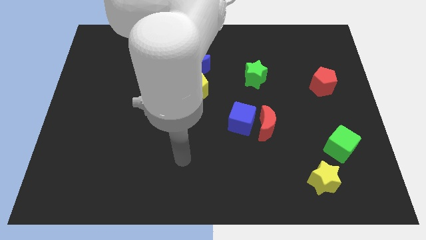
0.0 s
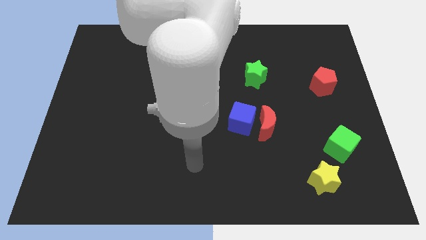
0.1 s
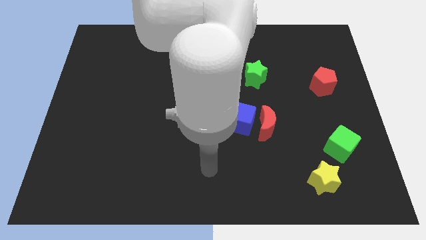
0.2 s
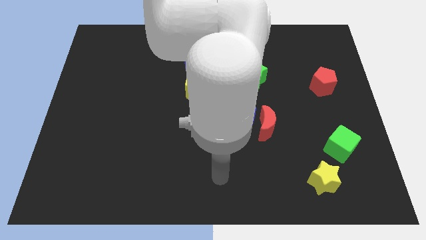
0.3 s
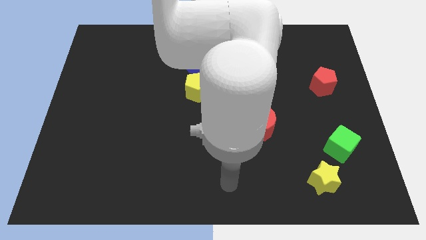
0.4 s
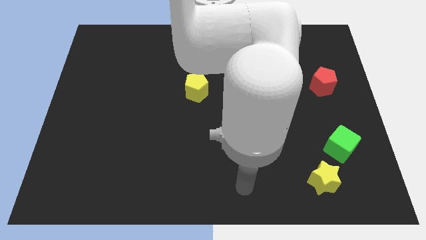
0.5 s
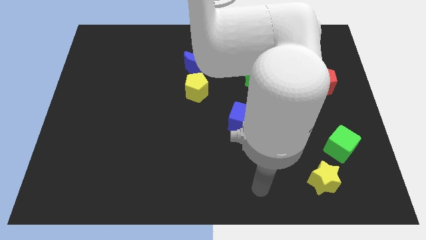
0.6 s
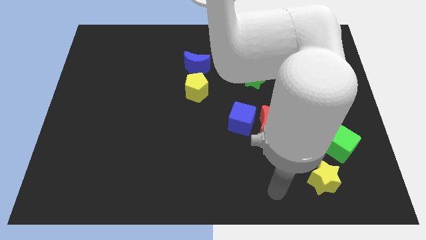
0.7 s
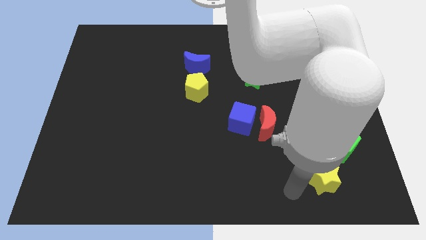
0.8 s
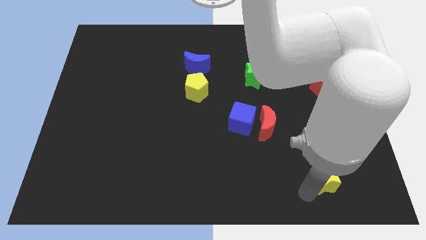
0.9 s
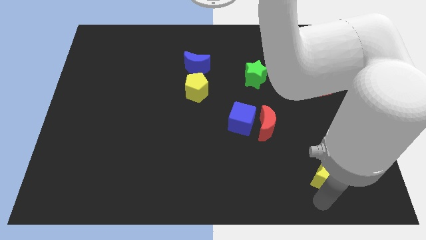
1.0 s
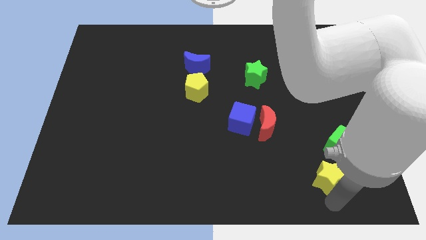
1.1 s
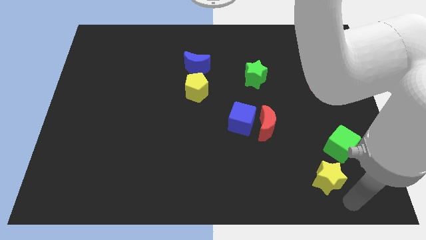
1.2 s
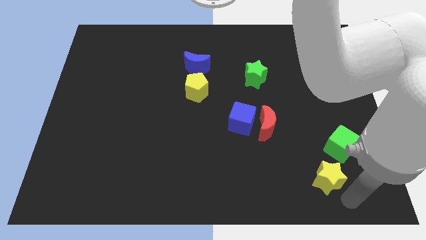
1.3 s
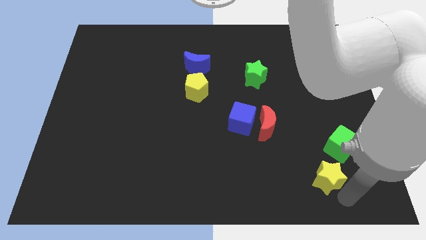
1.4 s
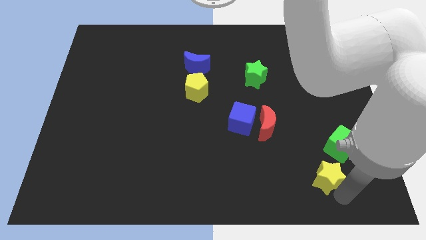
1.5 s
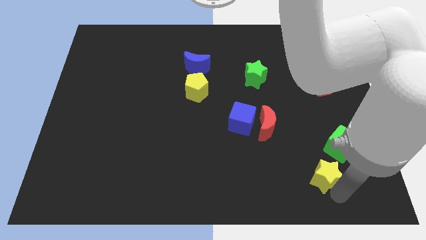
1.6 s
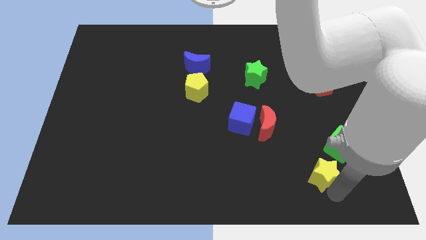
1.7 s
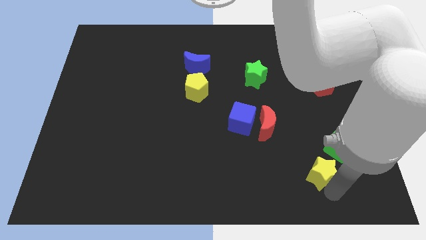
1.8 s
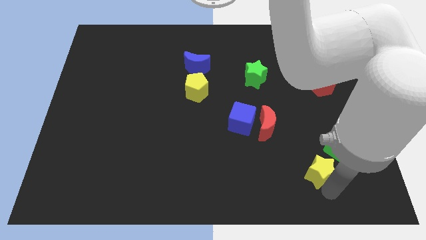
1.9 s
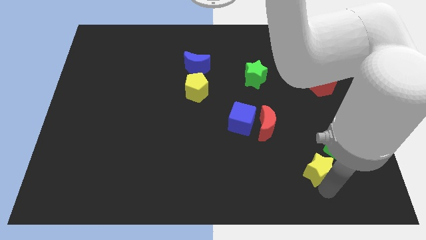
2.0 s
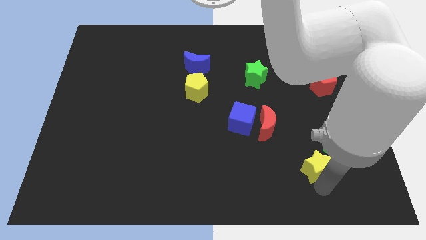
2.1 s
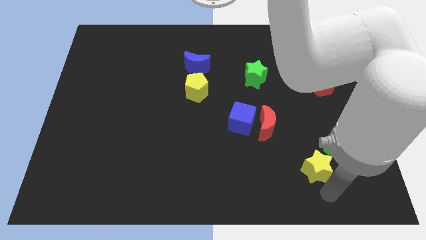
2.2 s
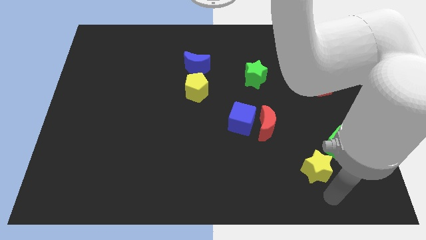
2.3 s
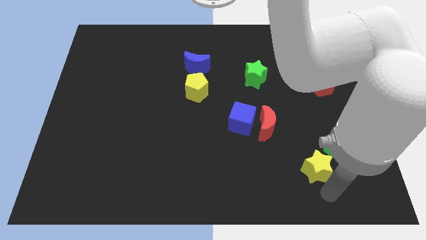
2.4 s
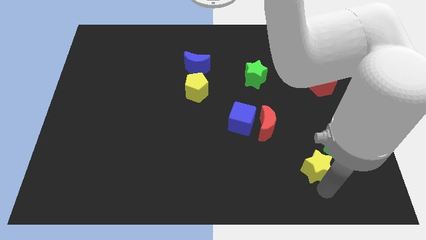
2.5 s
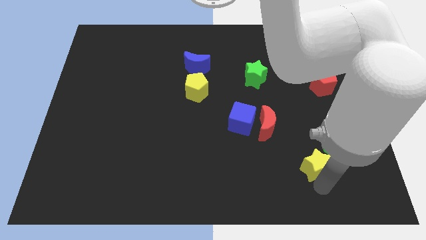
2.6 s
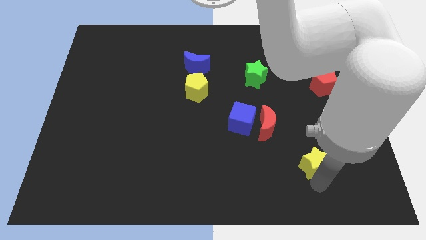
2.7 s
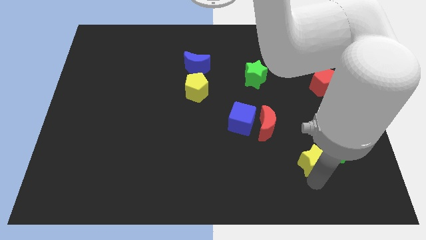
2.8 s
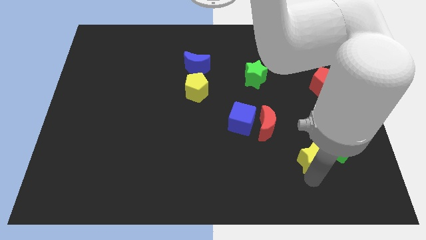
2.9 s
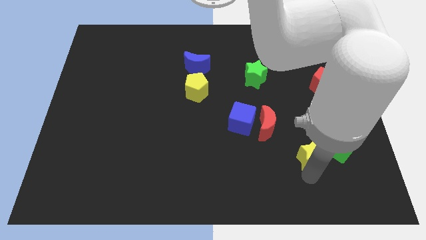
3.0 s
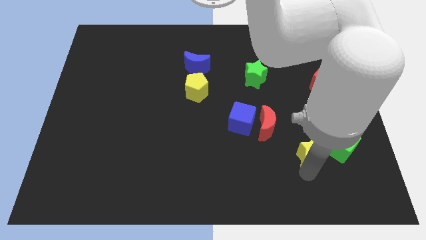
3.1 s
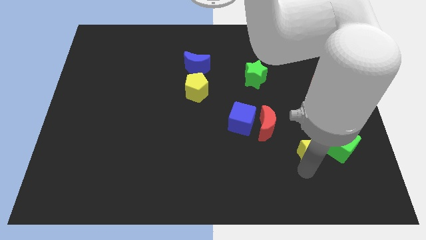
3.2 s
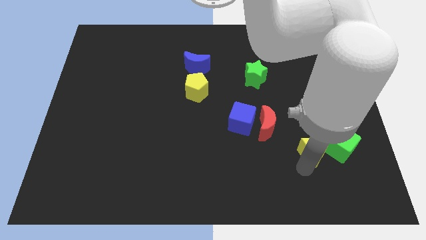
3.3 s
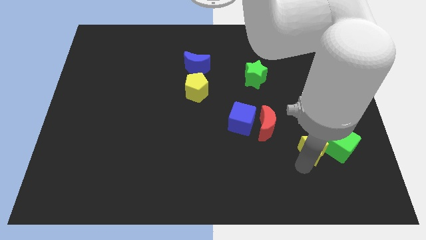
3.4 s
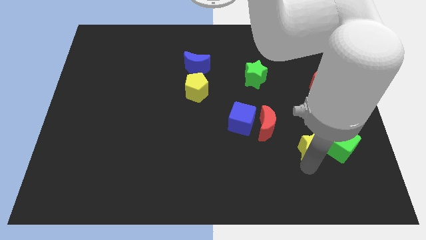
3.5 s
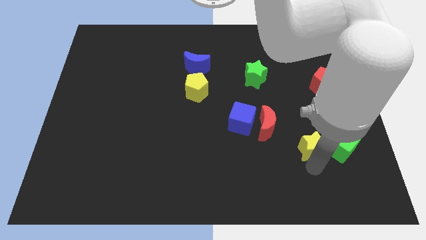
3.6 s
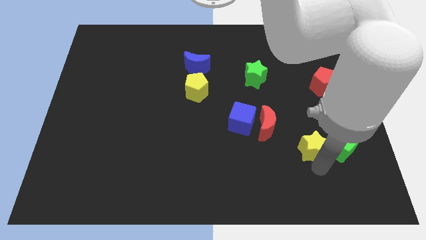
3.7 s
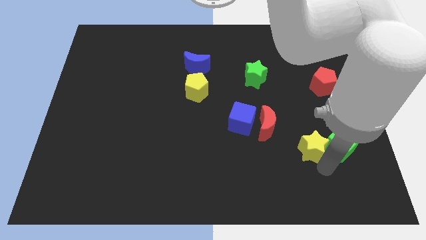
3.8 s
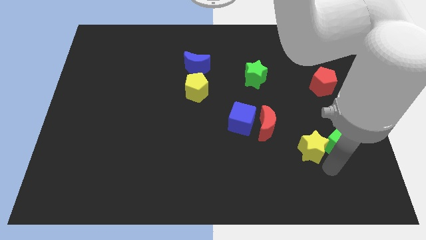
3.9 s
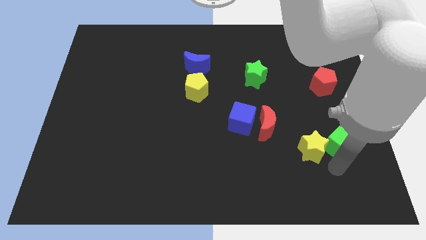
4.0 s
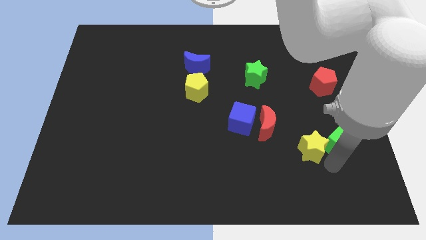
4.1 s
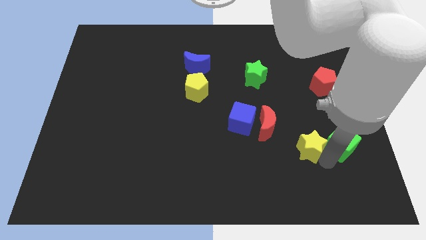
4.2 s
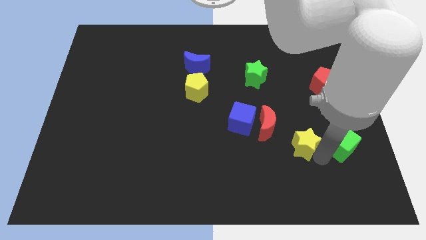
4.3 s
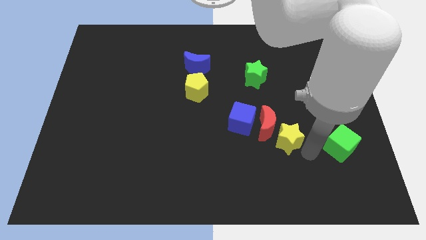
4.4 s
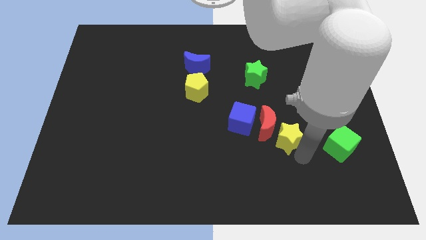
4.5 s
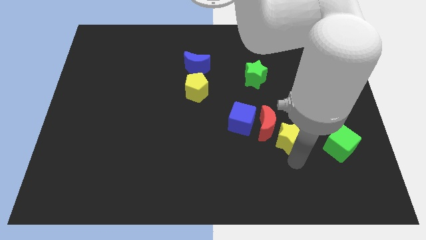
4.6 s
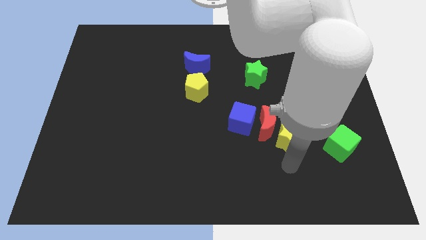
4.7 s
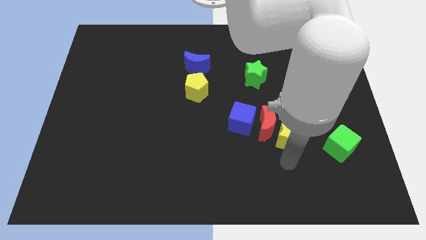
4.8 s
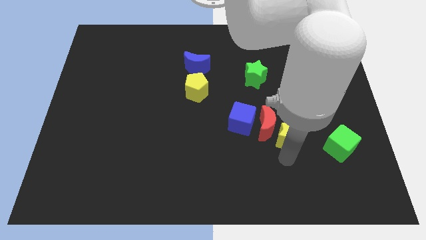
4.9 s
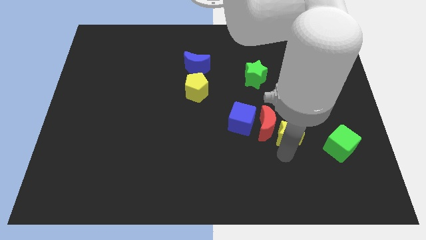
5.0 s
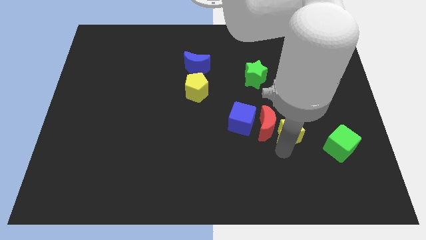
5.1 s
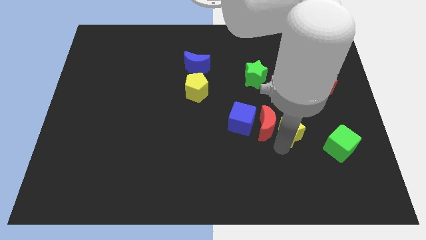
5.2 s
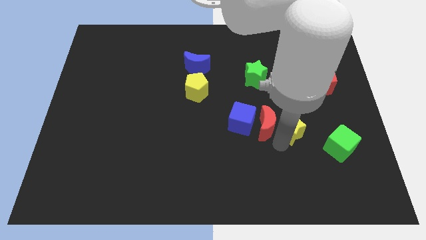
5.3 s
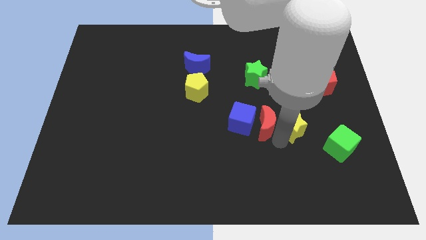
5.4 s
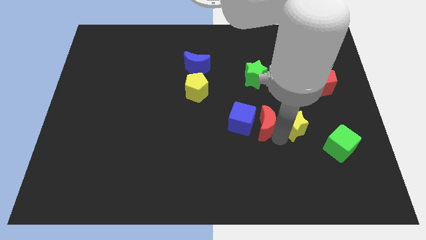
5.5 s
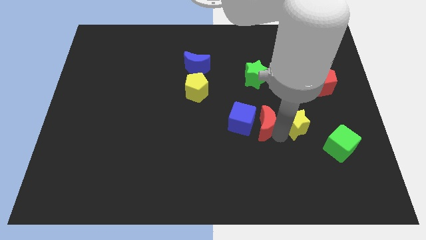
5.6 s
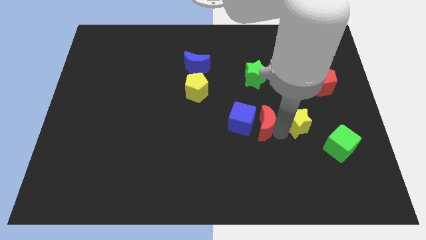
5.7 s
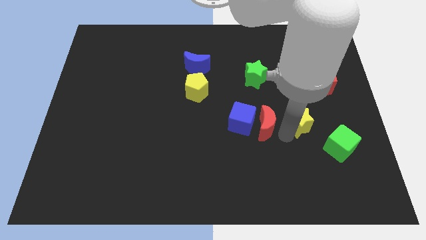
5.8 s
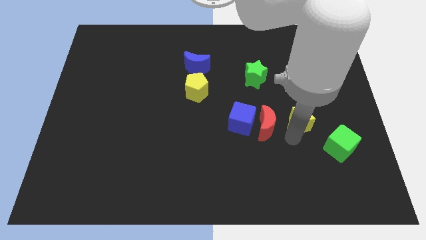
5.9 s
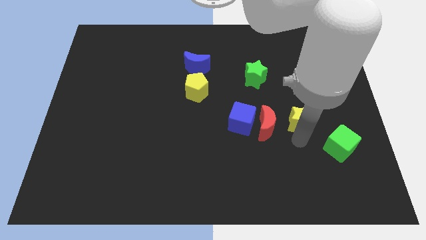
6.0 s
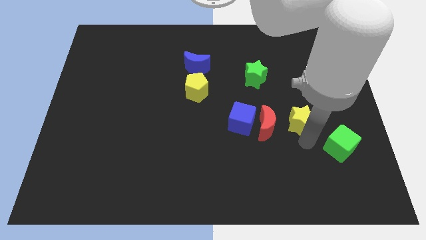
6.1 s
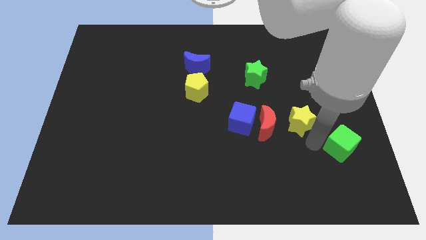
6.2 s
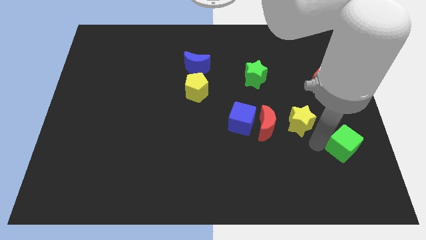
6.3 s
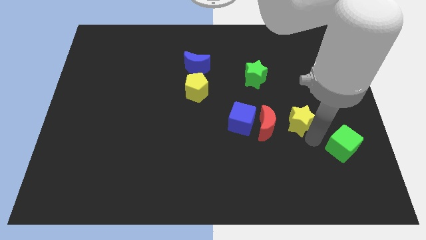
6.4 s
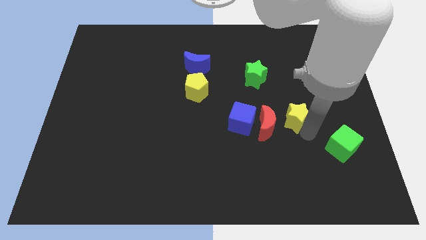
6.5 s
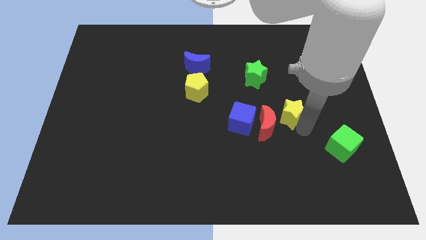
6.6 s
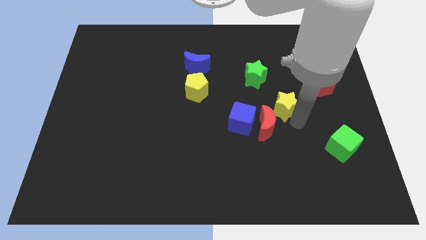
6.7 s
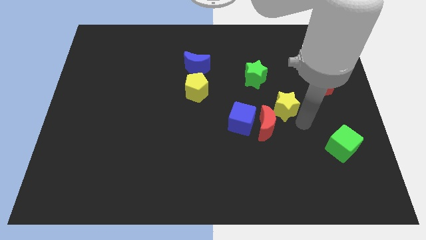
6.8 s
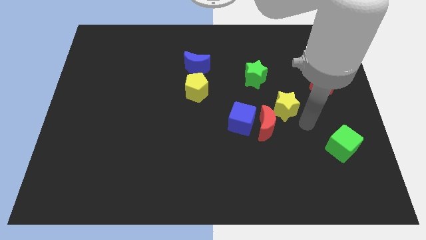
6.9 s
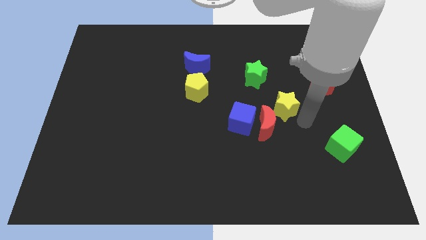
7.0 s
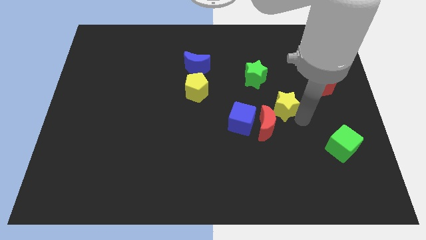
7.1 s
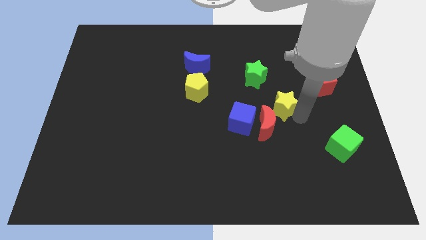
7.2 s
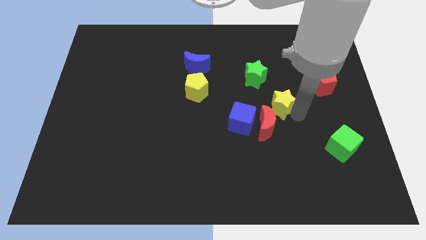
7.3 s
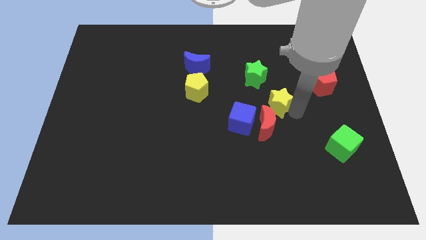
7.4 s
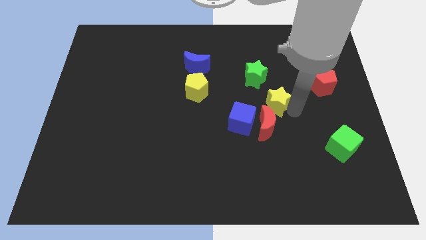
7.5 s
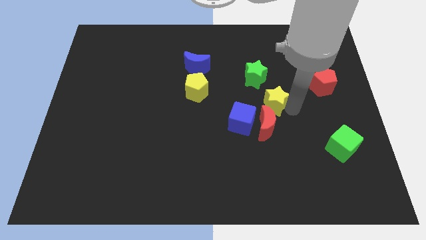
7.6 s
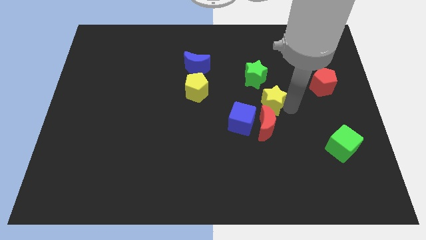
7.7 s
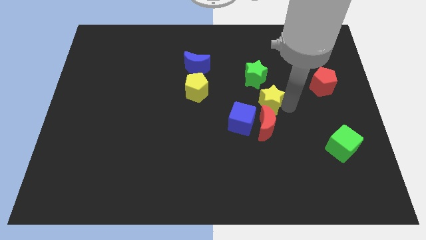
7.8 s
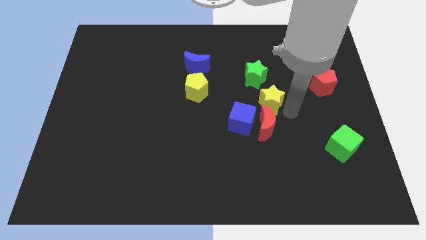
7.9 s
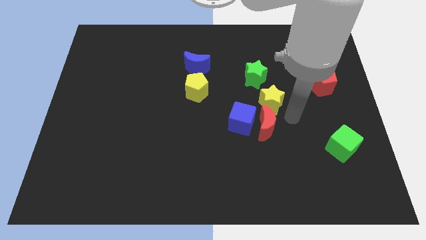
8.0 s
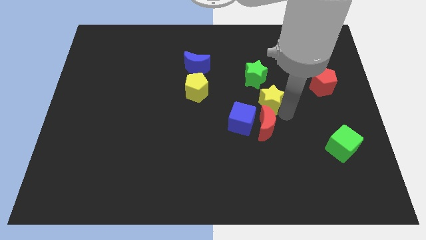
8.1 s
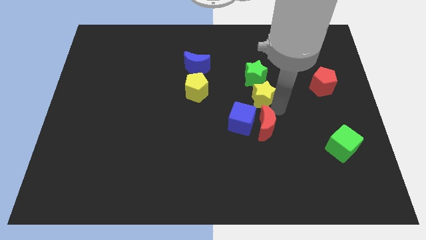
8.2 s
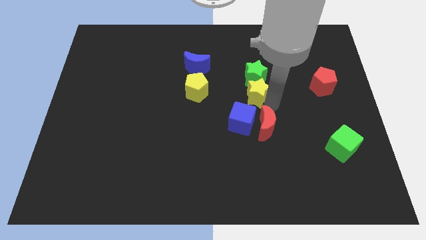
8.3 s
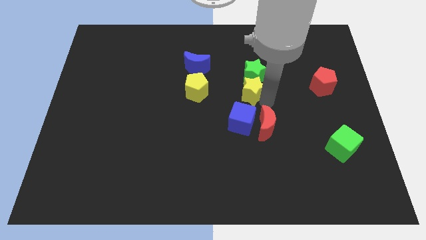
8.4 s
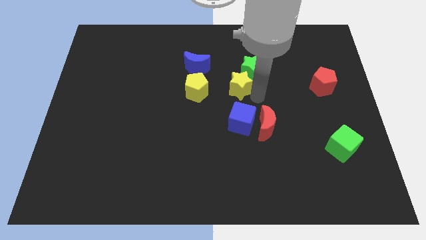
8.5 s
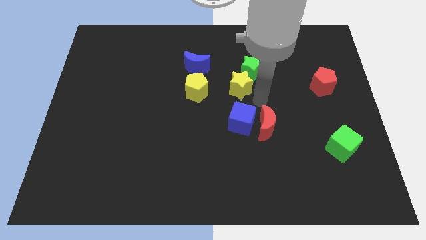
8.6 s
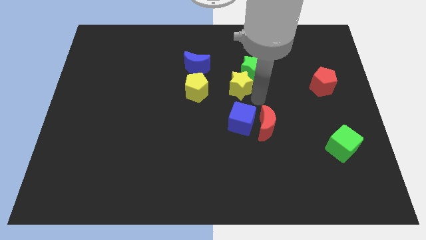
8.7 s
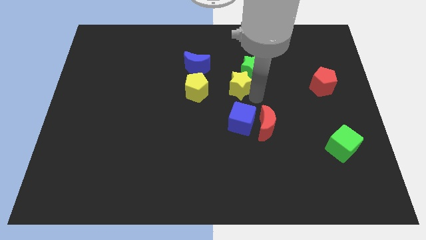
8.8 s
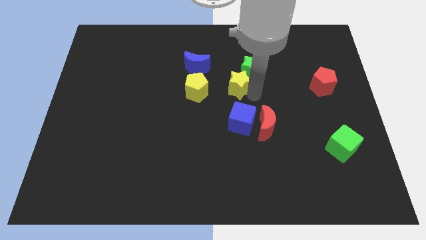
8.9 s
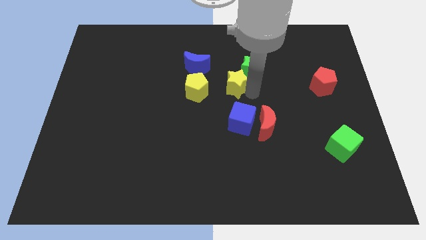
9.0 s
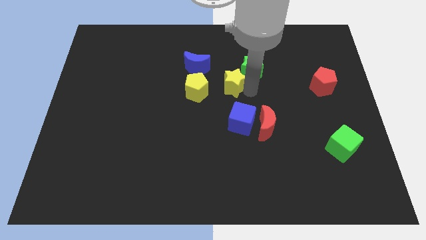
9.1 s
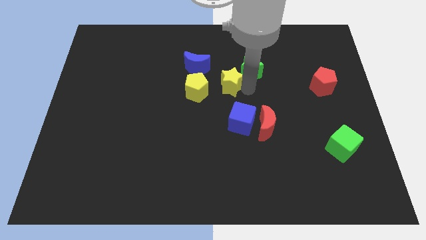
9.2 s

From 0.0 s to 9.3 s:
slide the yellow star to the top right of the yellow pentagon
